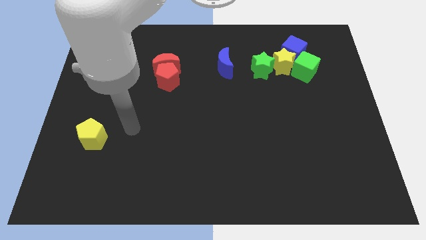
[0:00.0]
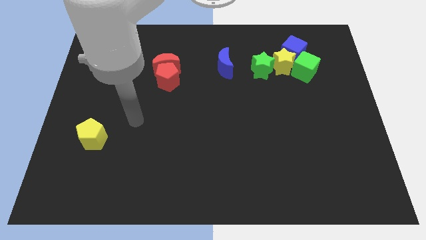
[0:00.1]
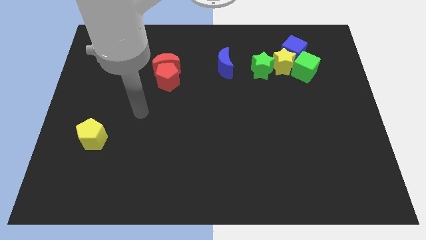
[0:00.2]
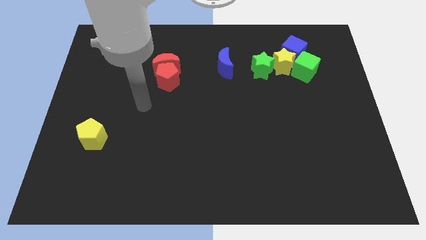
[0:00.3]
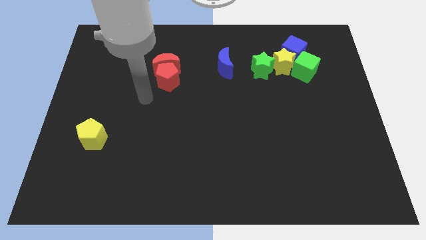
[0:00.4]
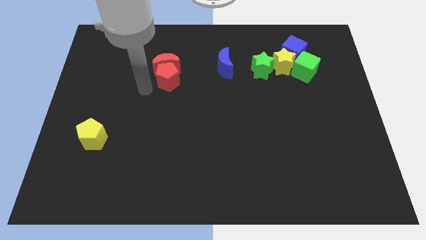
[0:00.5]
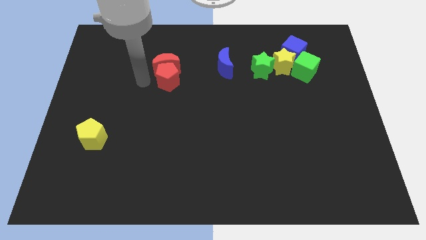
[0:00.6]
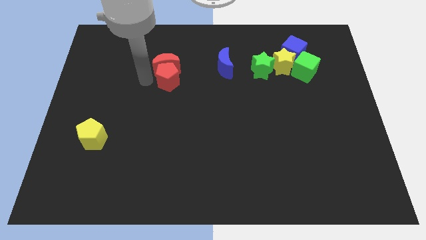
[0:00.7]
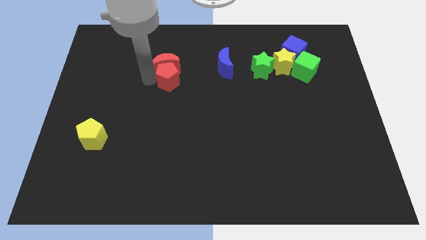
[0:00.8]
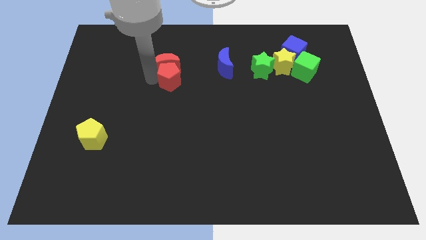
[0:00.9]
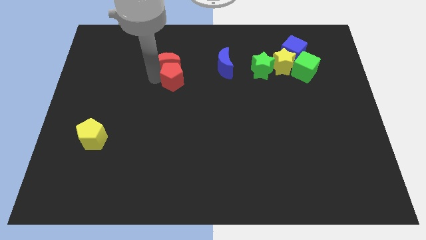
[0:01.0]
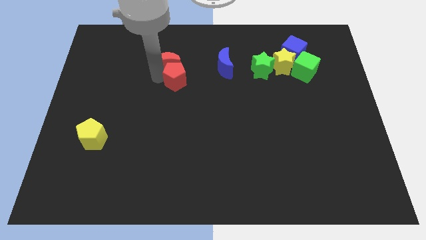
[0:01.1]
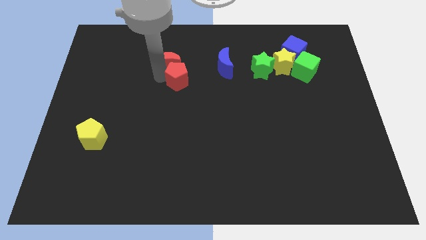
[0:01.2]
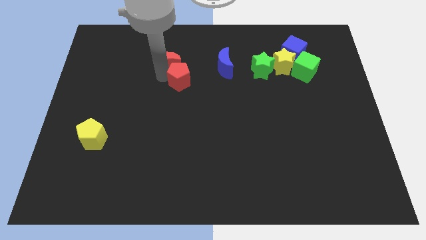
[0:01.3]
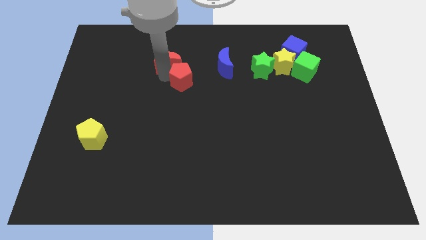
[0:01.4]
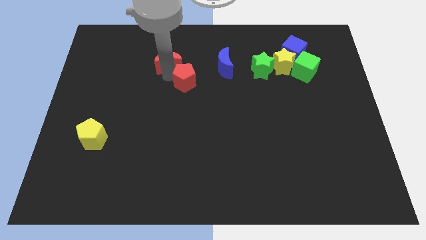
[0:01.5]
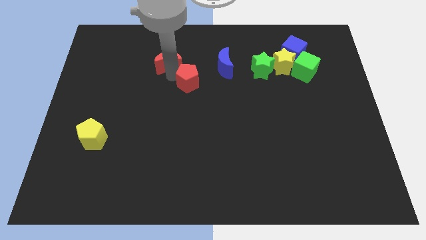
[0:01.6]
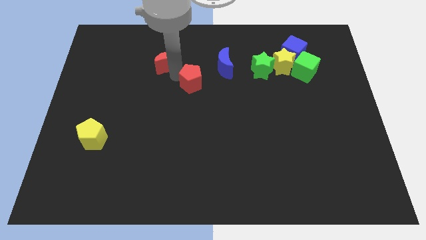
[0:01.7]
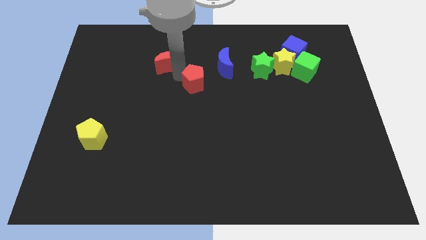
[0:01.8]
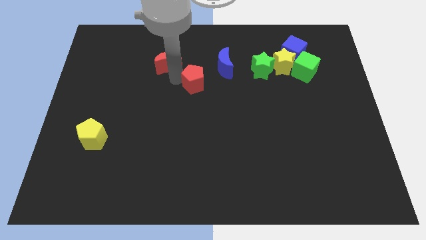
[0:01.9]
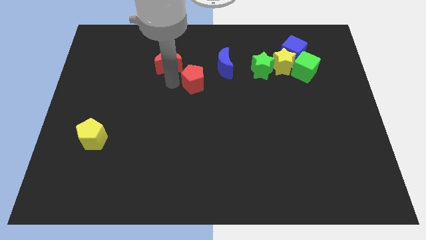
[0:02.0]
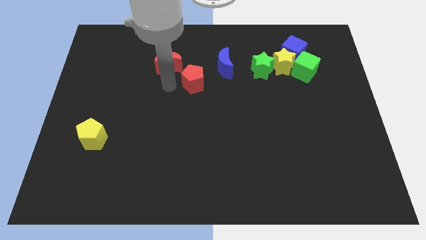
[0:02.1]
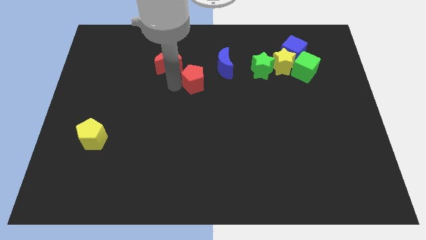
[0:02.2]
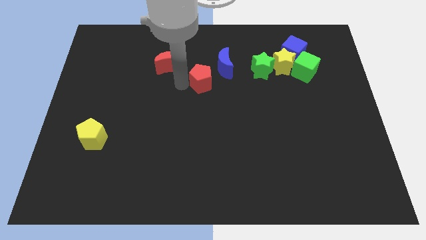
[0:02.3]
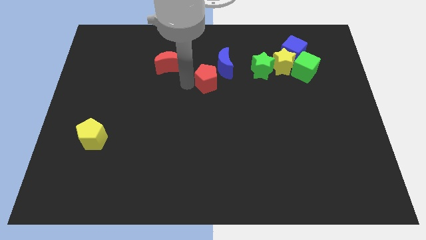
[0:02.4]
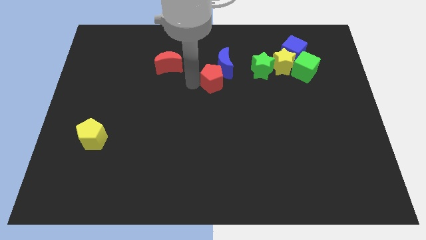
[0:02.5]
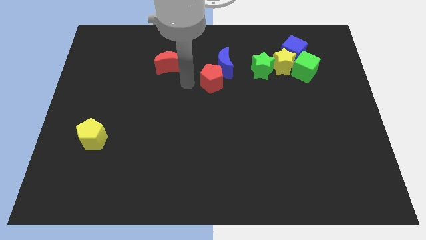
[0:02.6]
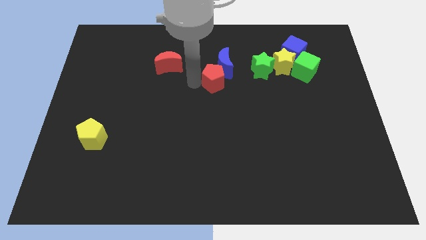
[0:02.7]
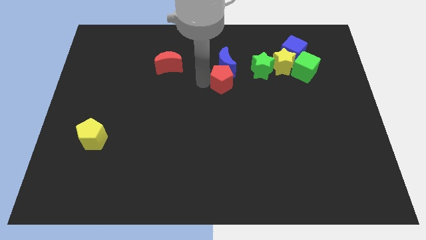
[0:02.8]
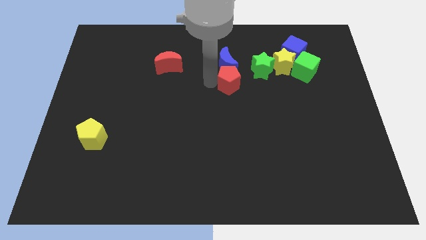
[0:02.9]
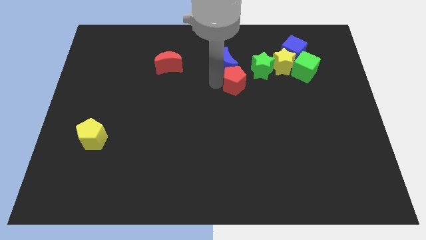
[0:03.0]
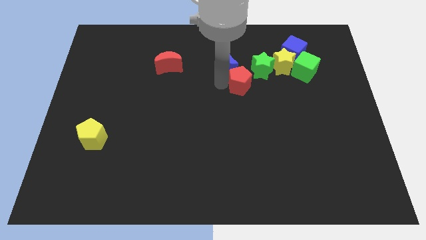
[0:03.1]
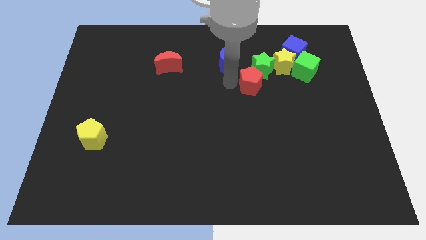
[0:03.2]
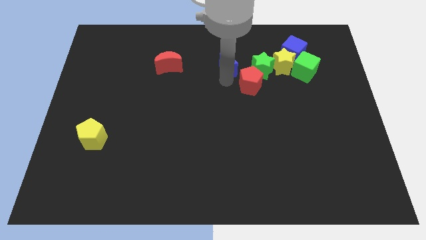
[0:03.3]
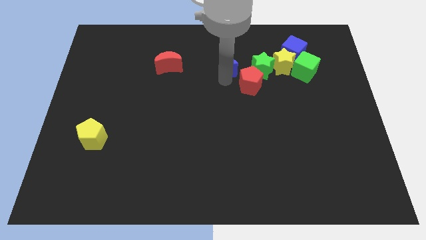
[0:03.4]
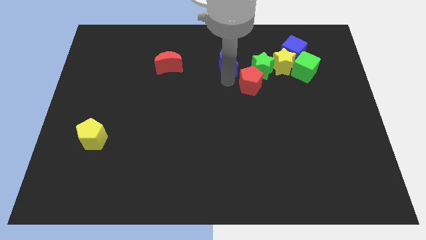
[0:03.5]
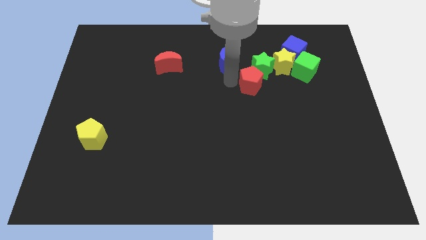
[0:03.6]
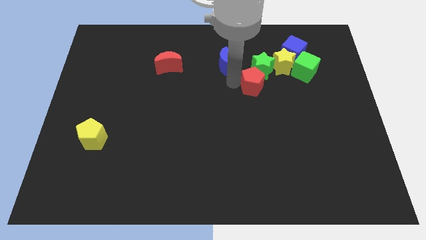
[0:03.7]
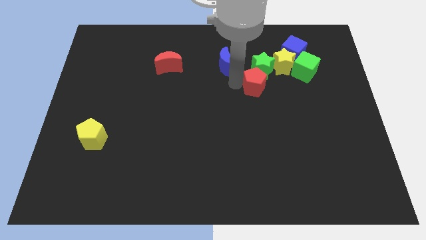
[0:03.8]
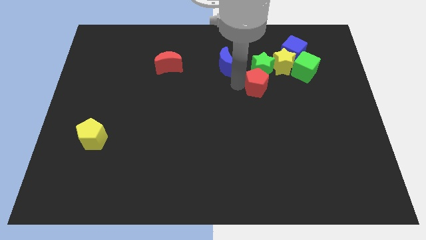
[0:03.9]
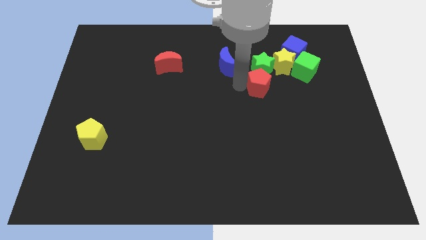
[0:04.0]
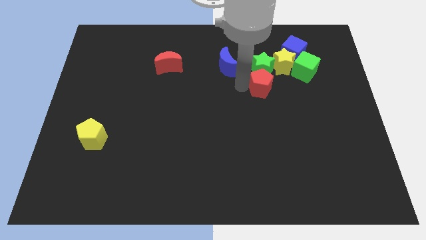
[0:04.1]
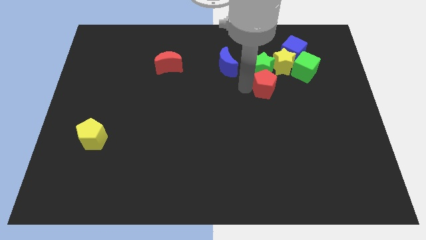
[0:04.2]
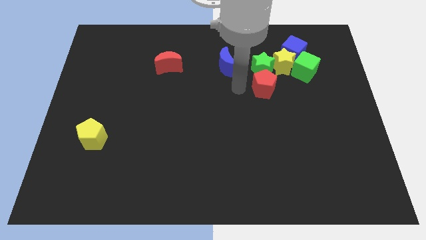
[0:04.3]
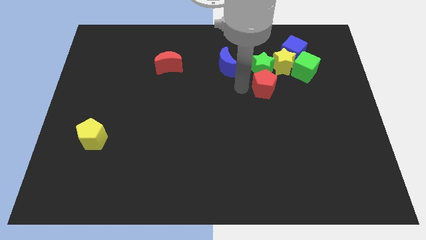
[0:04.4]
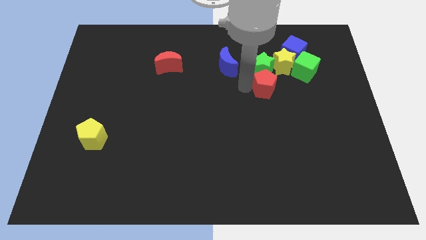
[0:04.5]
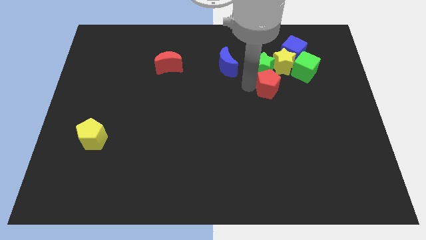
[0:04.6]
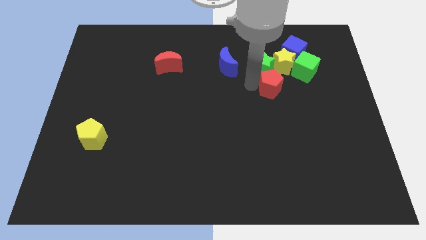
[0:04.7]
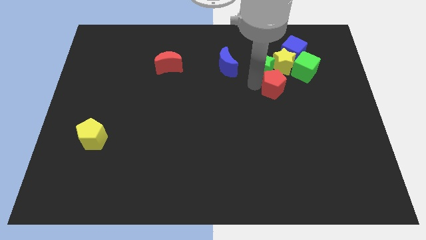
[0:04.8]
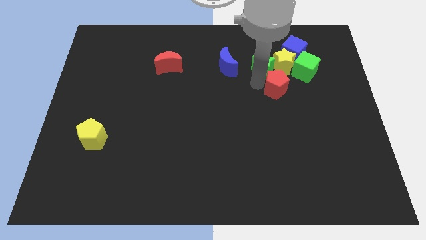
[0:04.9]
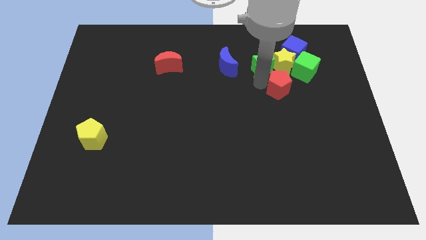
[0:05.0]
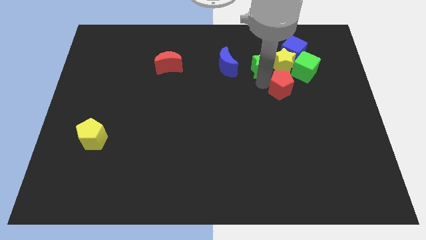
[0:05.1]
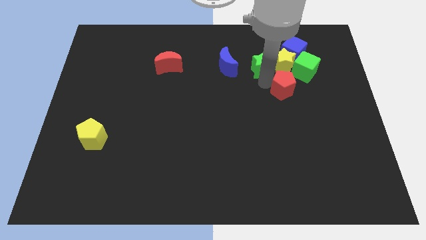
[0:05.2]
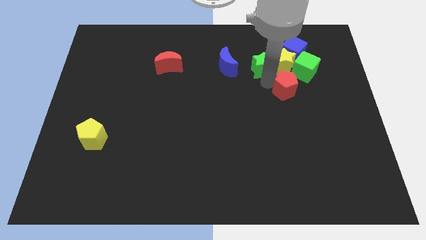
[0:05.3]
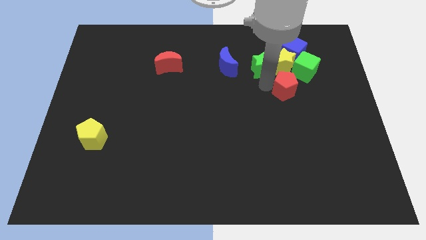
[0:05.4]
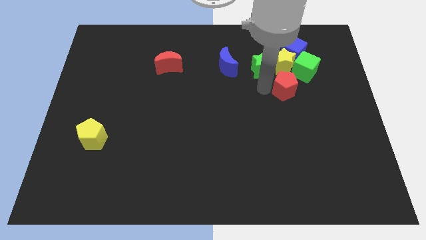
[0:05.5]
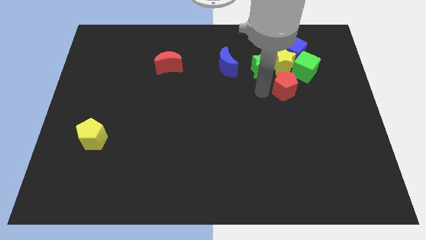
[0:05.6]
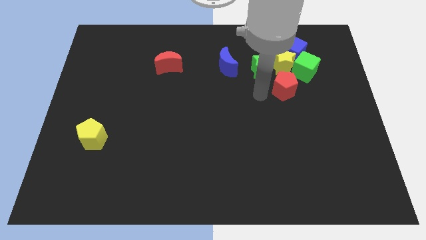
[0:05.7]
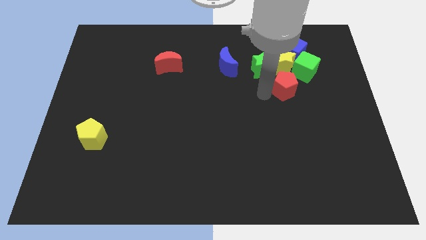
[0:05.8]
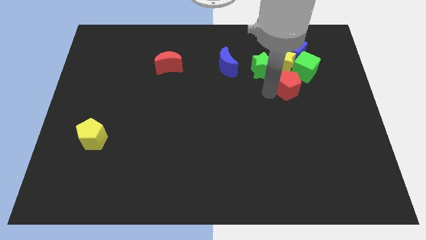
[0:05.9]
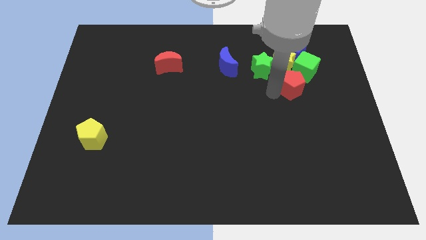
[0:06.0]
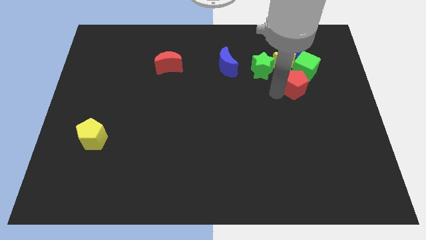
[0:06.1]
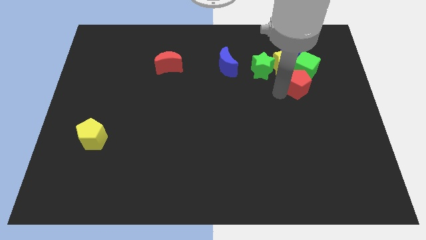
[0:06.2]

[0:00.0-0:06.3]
slide the red pentagon next to the green cube
